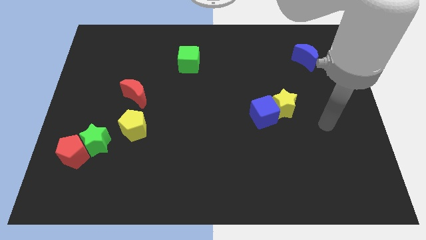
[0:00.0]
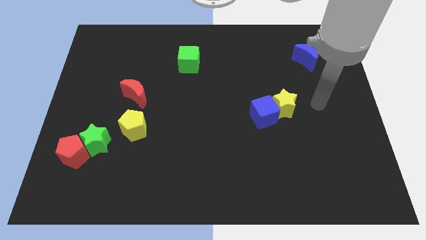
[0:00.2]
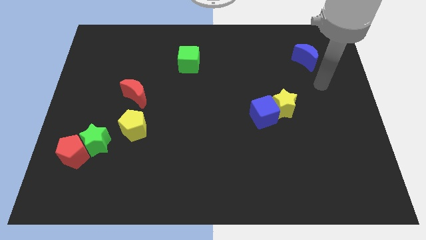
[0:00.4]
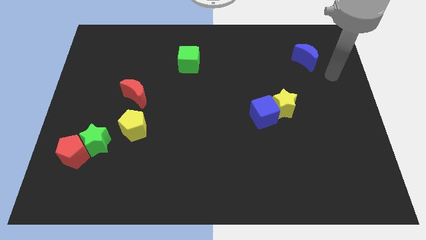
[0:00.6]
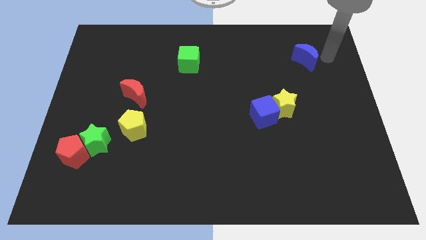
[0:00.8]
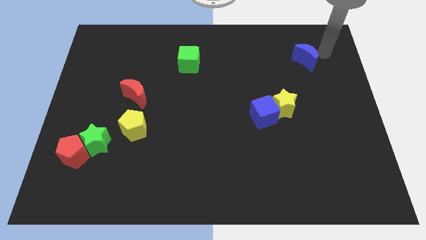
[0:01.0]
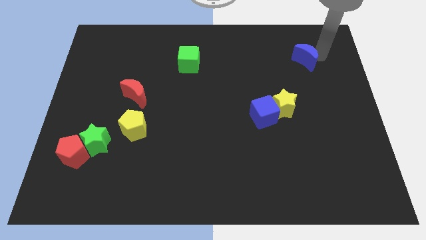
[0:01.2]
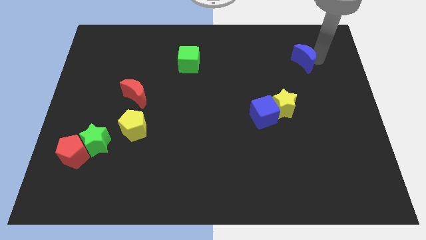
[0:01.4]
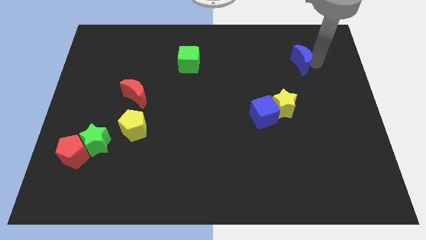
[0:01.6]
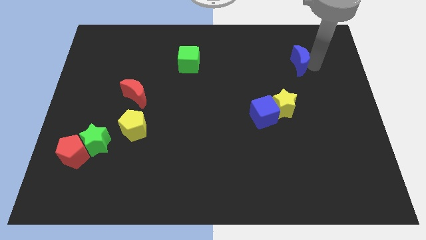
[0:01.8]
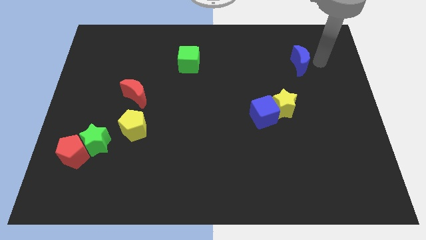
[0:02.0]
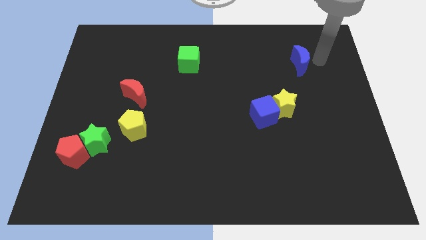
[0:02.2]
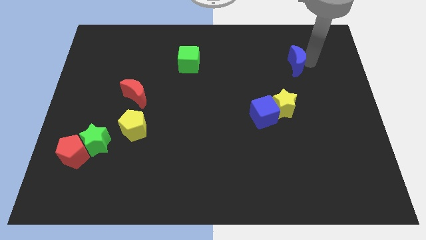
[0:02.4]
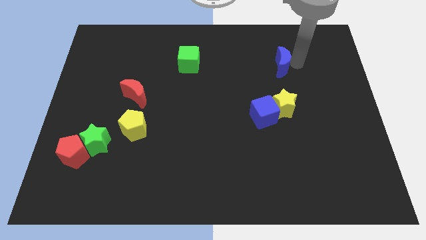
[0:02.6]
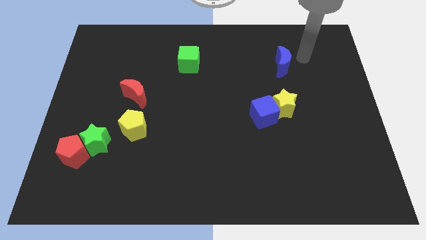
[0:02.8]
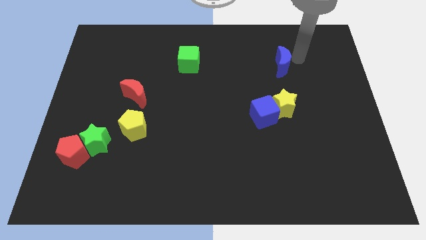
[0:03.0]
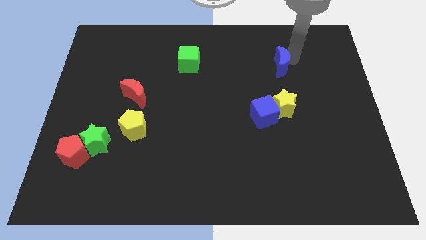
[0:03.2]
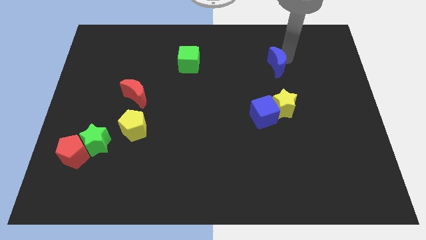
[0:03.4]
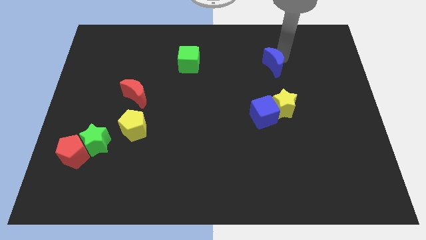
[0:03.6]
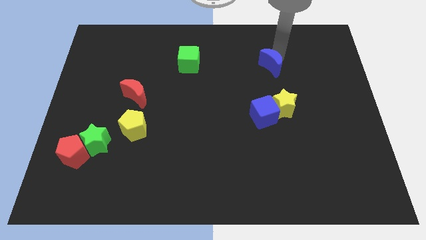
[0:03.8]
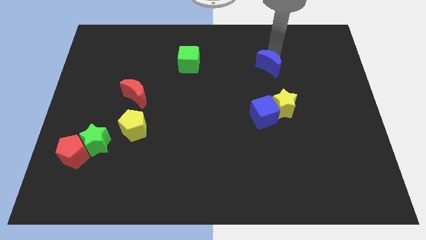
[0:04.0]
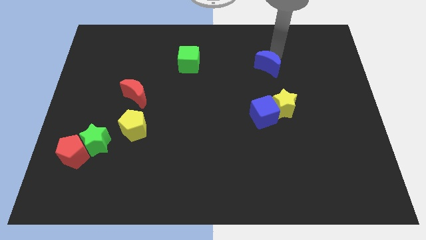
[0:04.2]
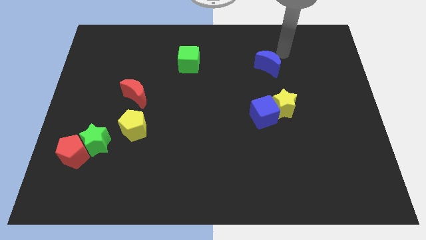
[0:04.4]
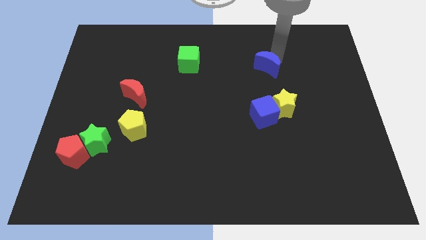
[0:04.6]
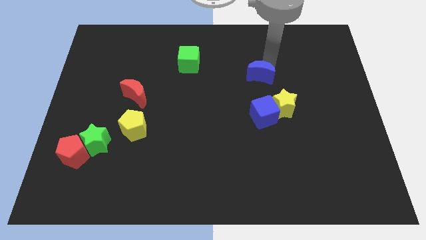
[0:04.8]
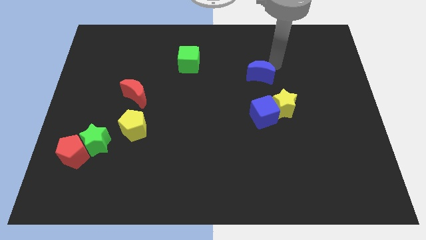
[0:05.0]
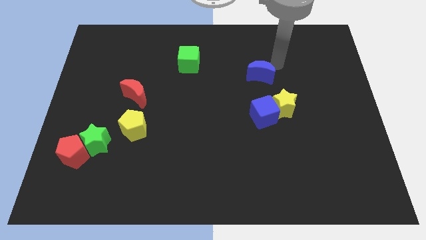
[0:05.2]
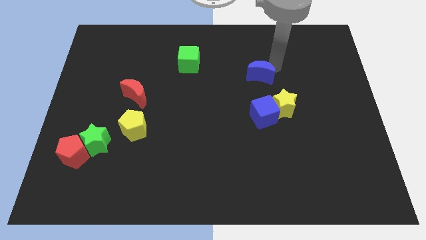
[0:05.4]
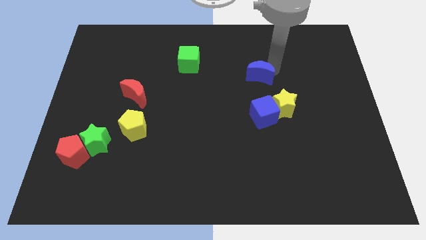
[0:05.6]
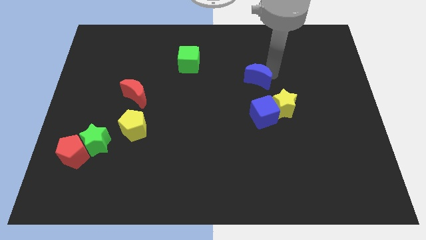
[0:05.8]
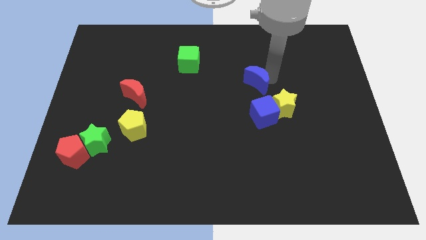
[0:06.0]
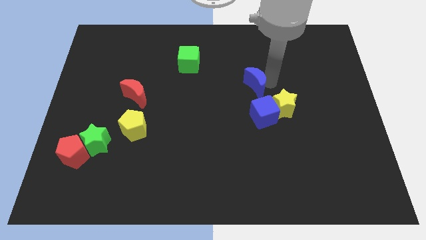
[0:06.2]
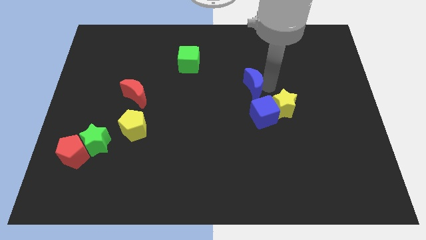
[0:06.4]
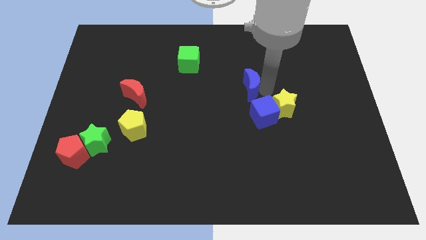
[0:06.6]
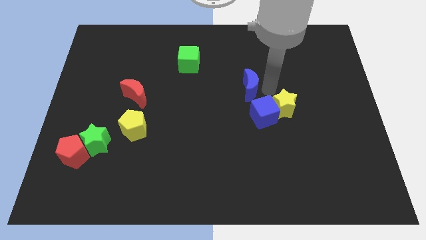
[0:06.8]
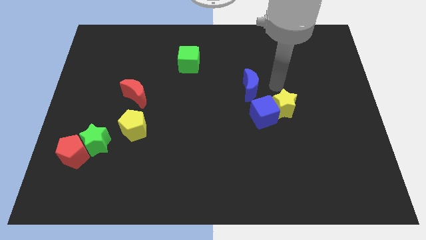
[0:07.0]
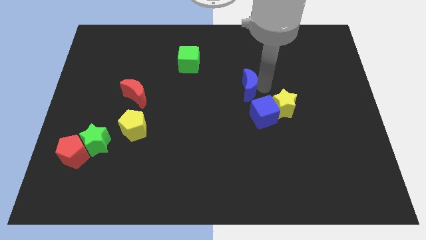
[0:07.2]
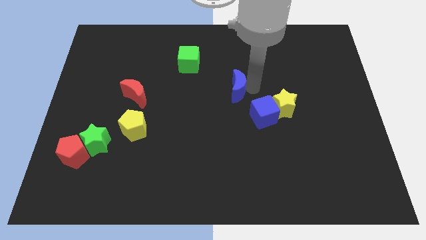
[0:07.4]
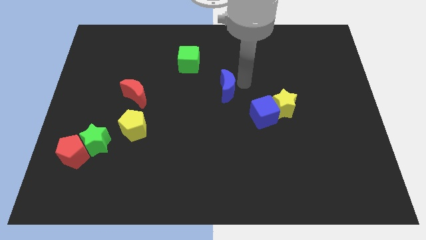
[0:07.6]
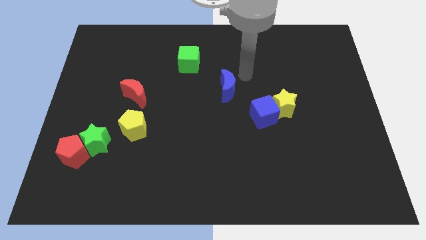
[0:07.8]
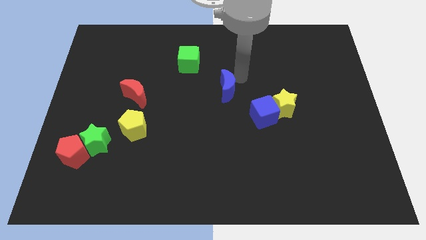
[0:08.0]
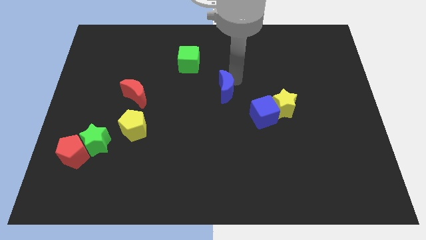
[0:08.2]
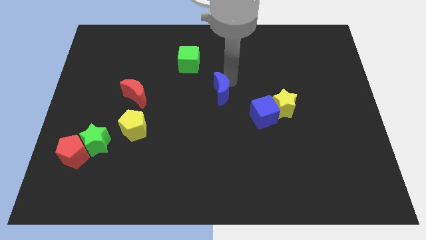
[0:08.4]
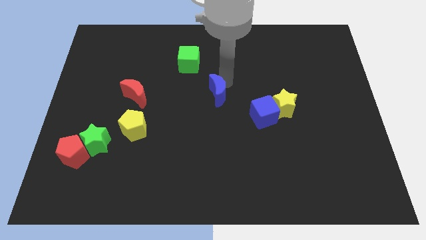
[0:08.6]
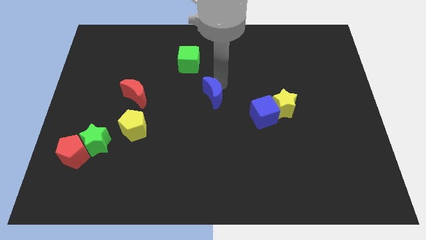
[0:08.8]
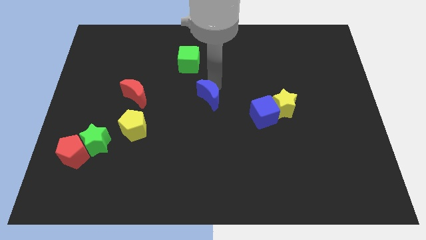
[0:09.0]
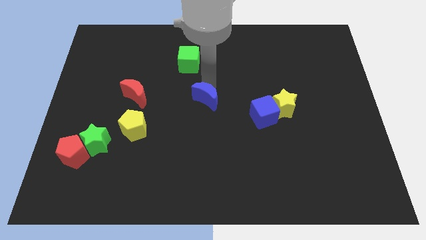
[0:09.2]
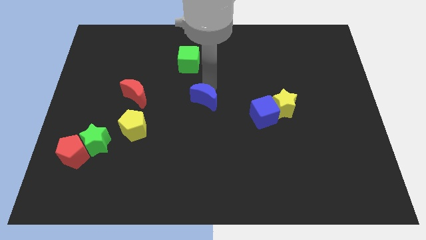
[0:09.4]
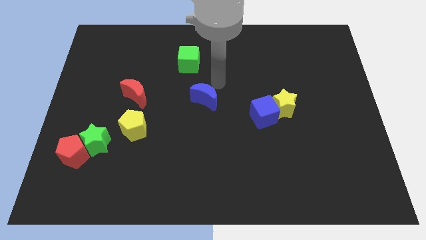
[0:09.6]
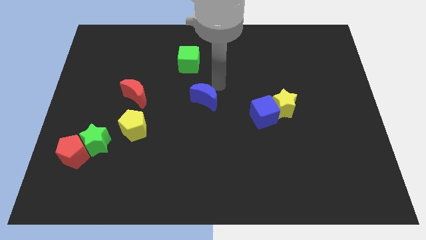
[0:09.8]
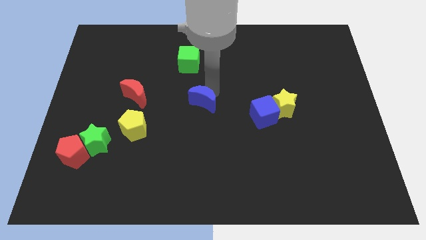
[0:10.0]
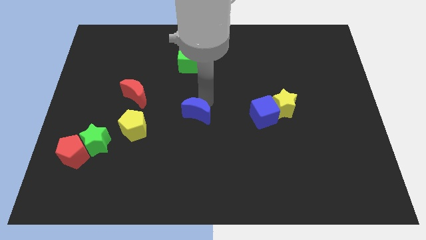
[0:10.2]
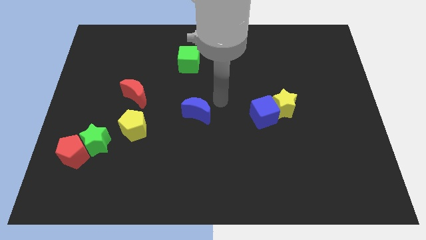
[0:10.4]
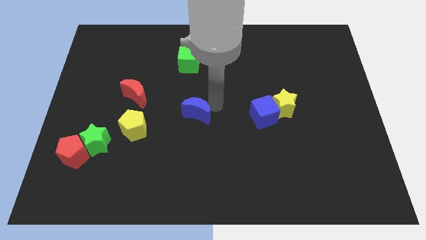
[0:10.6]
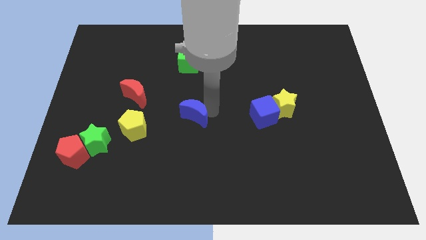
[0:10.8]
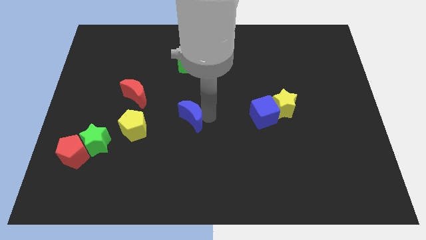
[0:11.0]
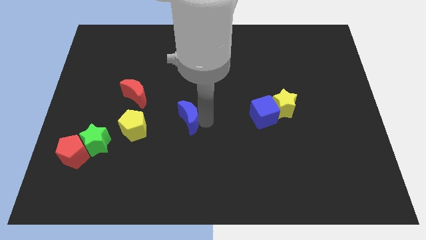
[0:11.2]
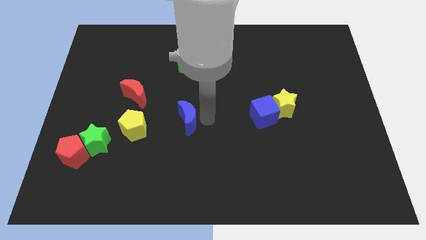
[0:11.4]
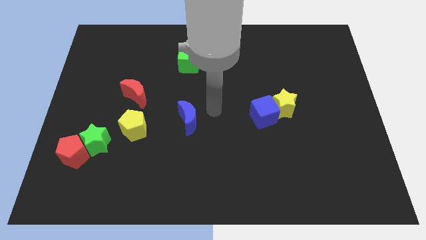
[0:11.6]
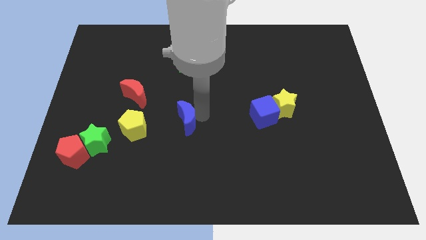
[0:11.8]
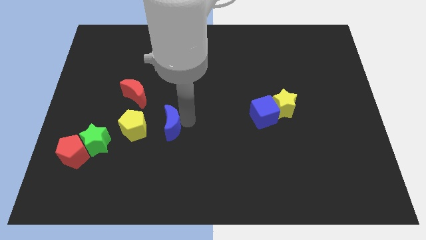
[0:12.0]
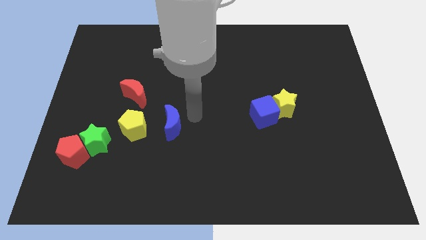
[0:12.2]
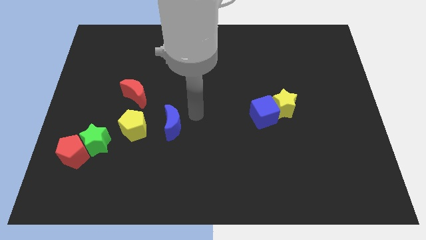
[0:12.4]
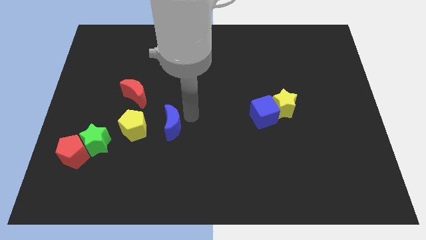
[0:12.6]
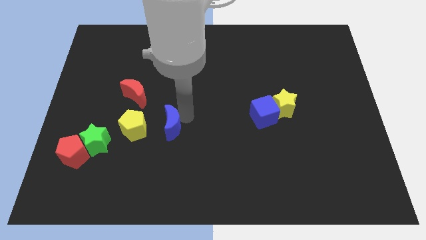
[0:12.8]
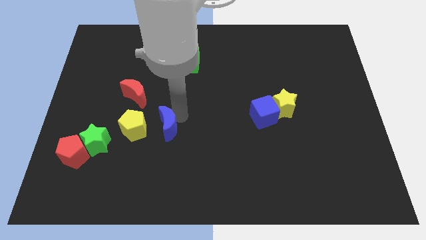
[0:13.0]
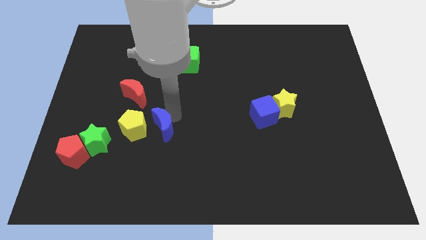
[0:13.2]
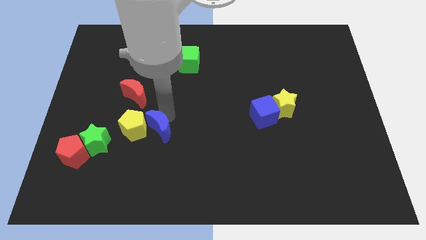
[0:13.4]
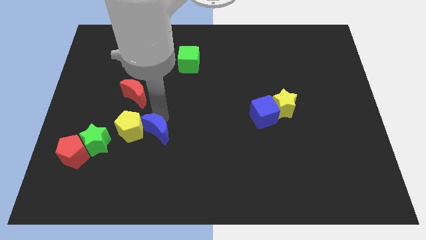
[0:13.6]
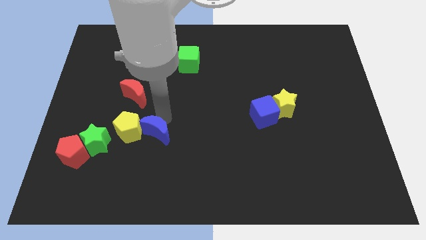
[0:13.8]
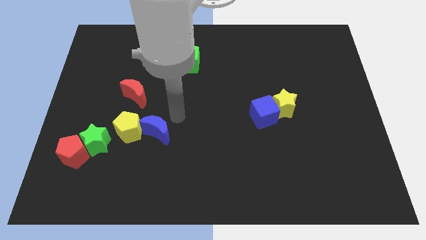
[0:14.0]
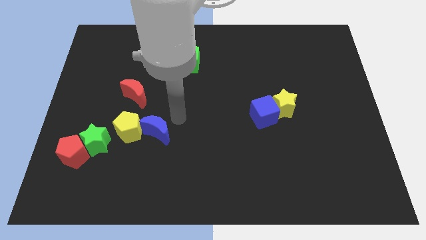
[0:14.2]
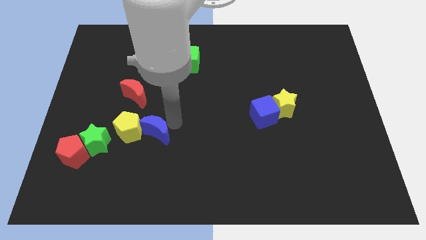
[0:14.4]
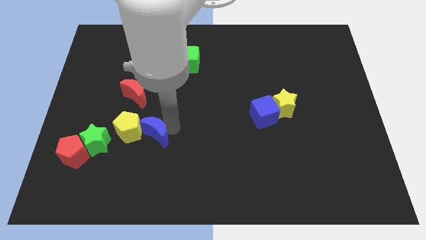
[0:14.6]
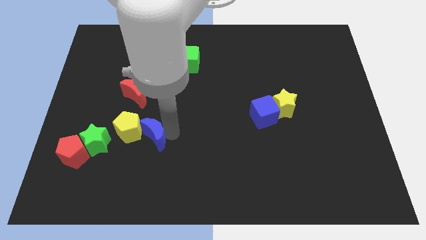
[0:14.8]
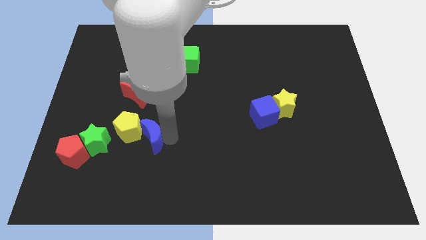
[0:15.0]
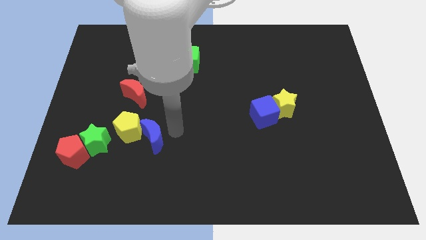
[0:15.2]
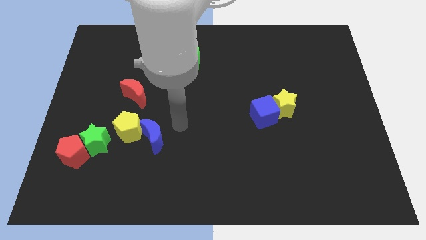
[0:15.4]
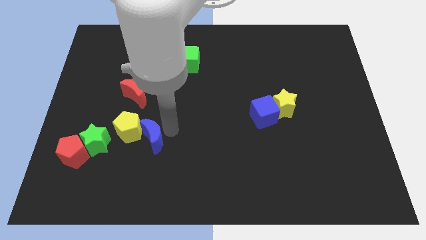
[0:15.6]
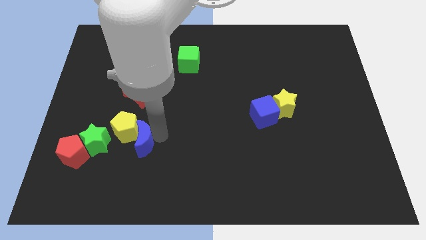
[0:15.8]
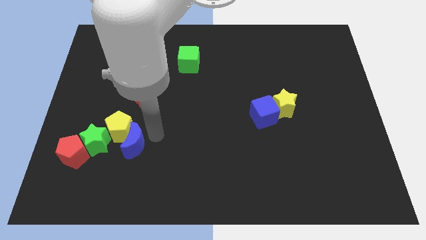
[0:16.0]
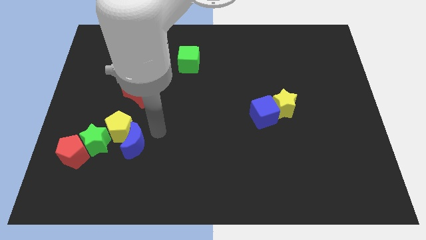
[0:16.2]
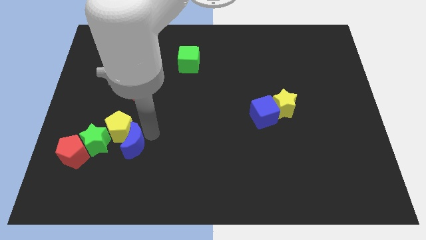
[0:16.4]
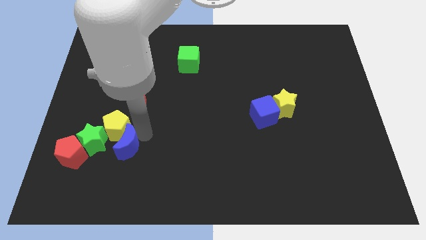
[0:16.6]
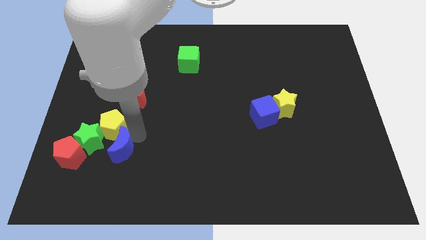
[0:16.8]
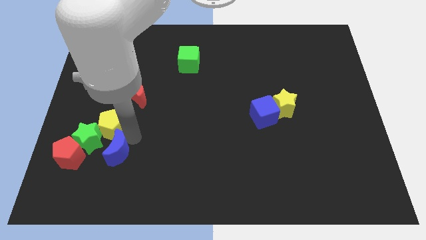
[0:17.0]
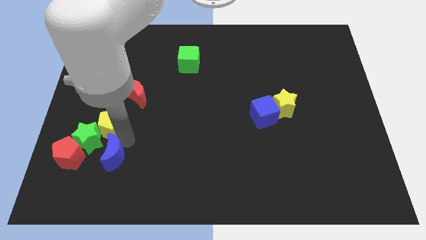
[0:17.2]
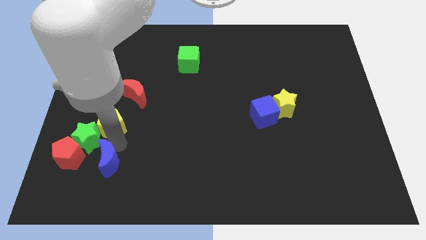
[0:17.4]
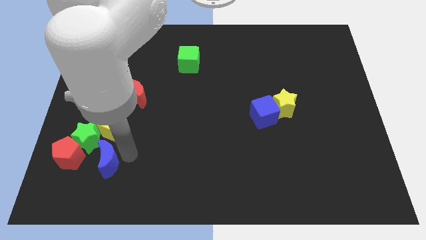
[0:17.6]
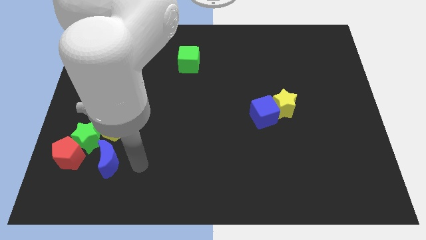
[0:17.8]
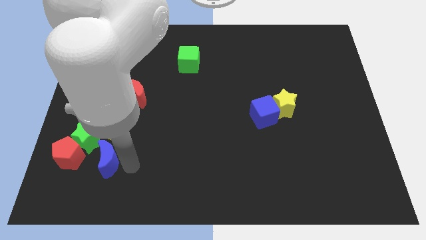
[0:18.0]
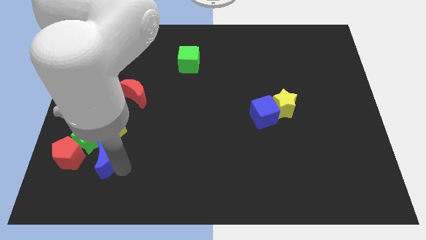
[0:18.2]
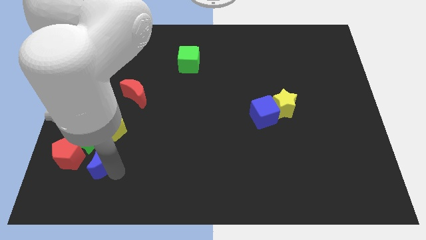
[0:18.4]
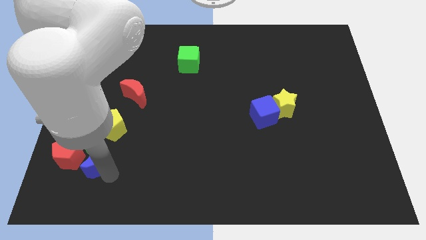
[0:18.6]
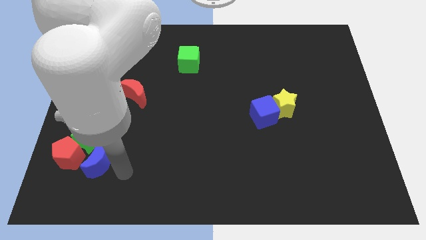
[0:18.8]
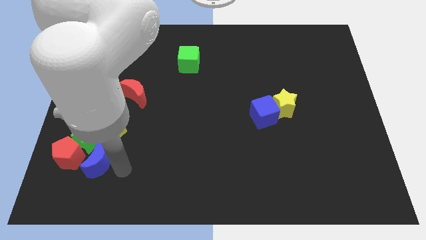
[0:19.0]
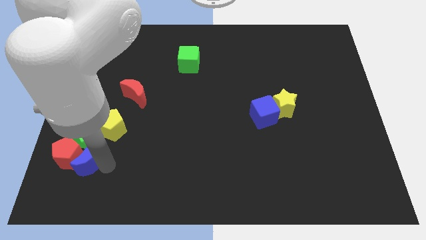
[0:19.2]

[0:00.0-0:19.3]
push the blue moon next to the red pentagon
